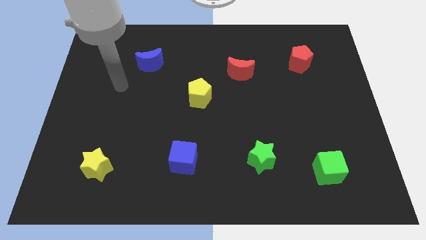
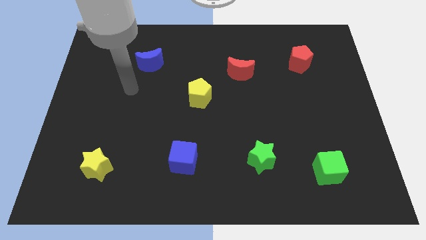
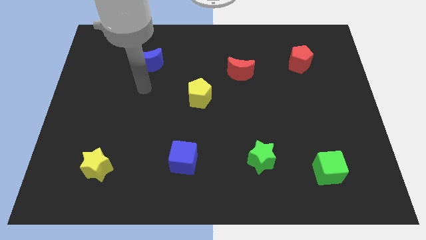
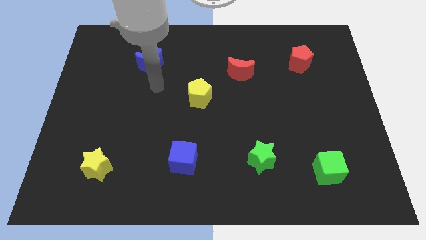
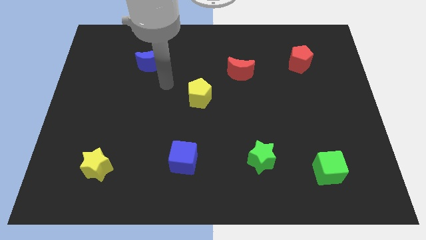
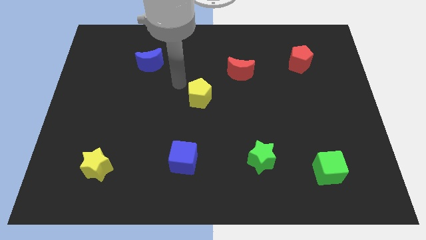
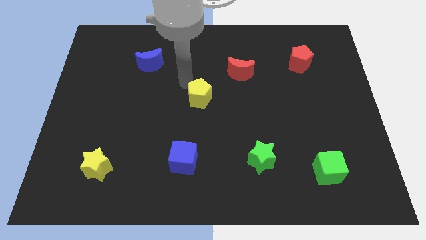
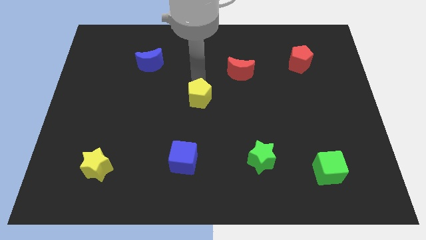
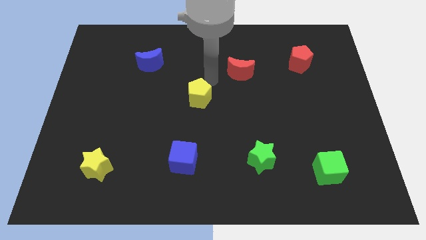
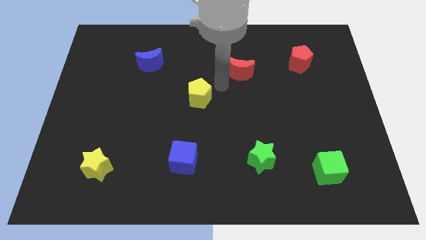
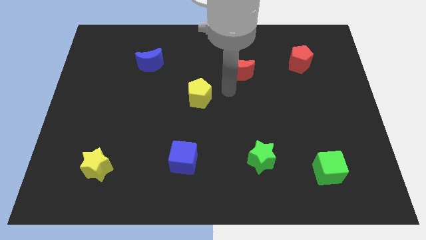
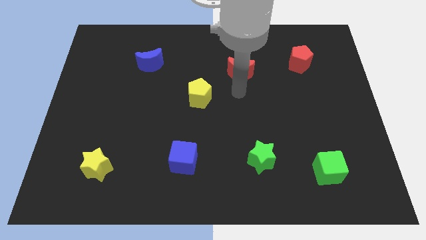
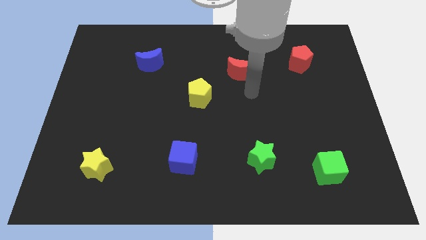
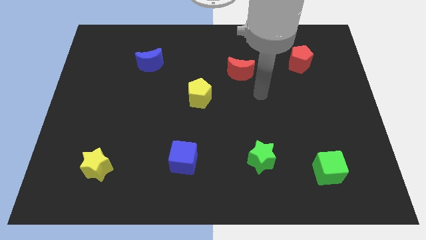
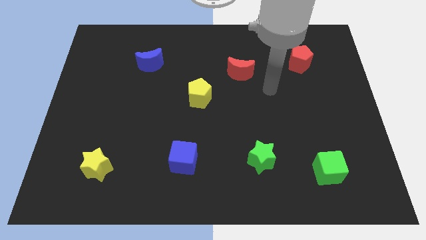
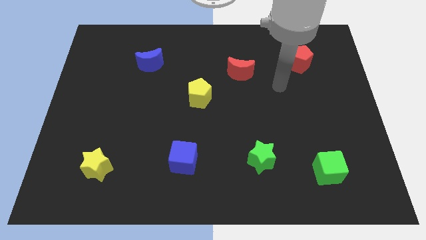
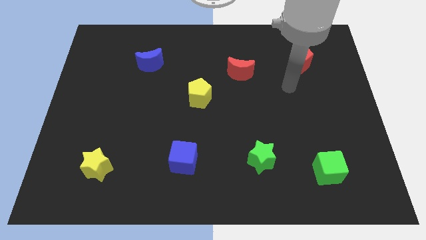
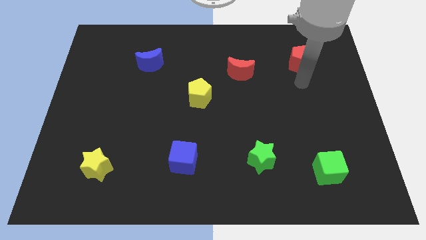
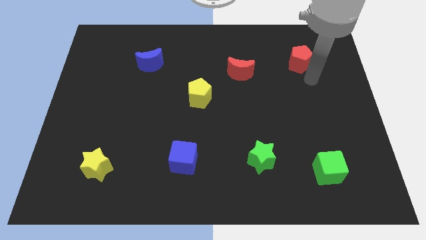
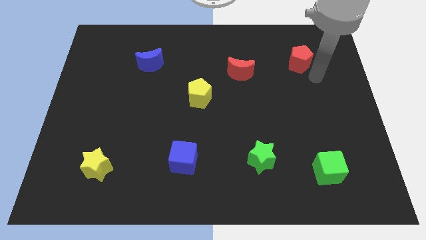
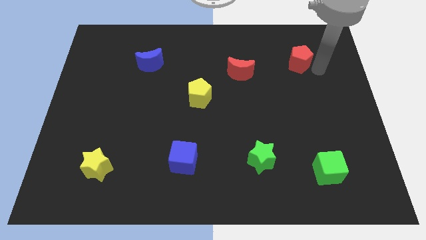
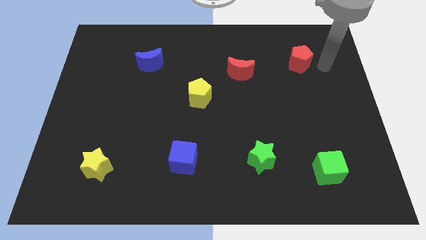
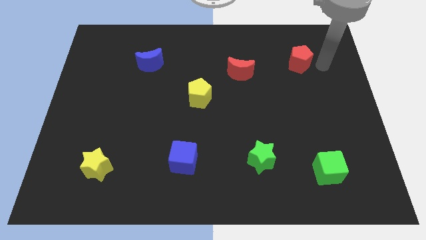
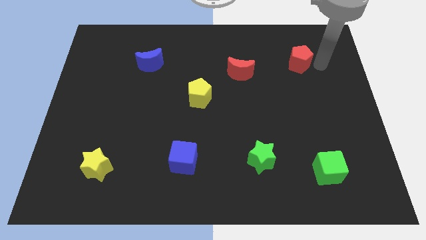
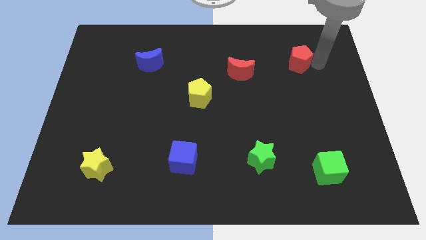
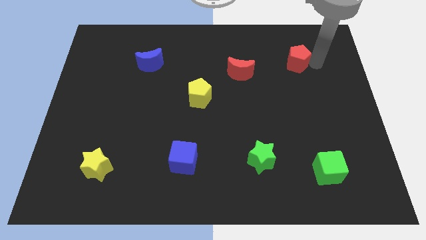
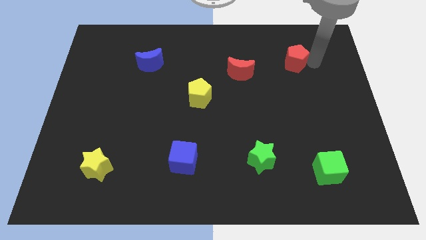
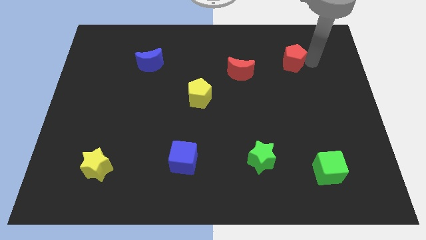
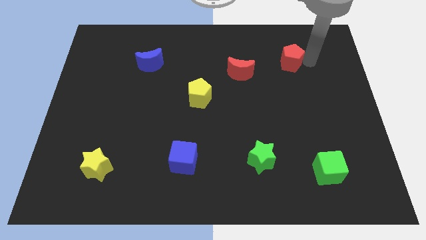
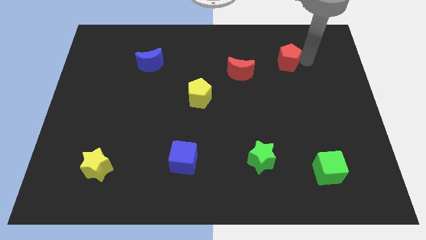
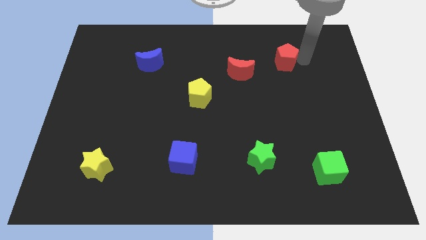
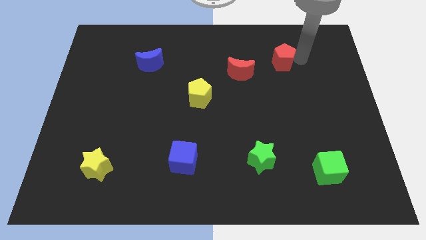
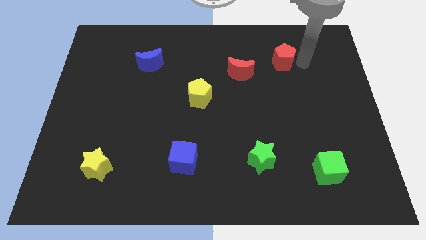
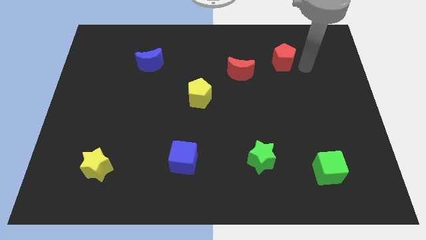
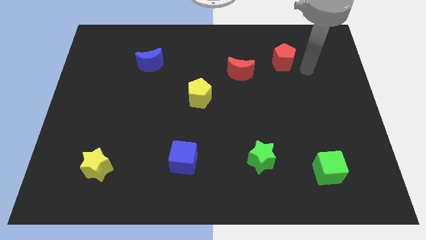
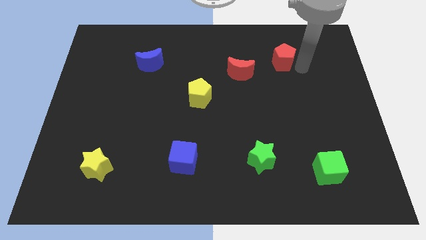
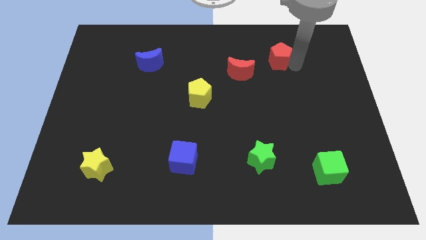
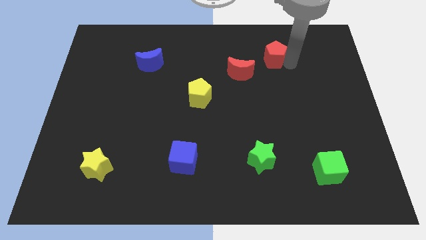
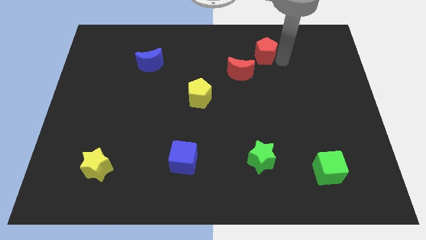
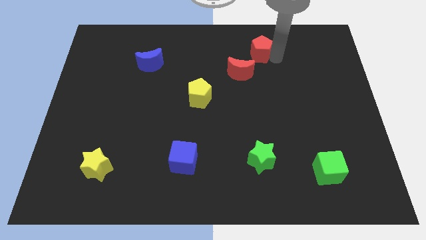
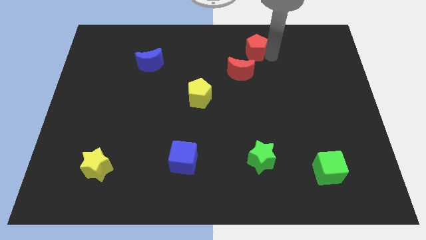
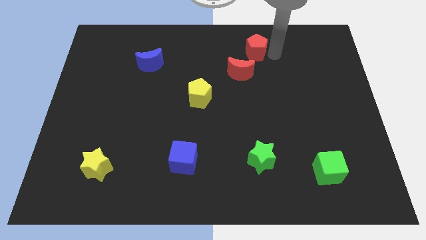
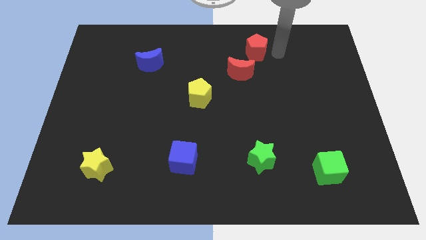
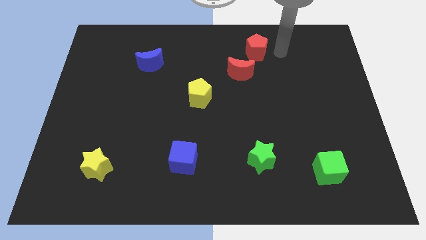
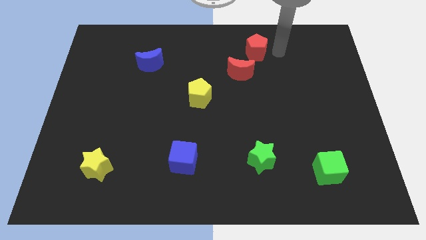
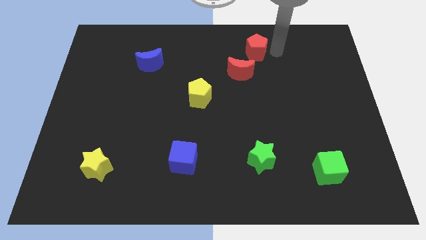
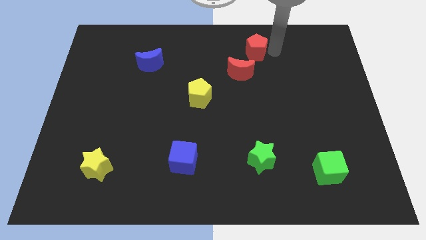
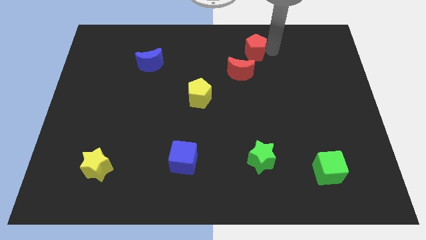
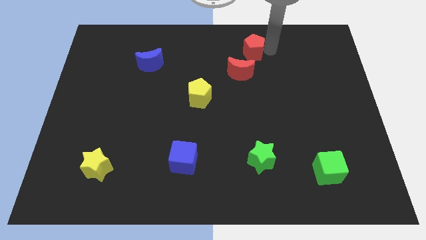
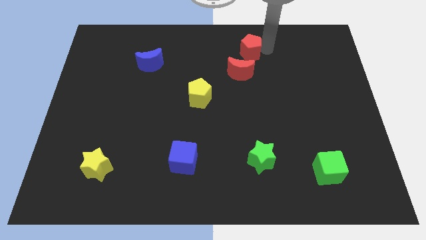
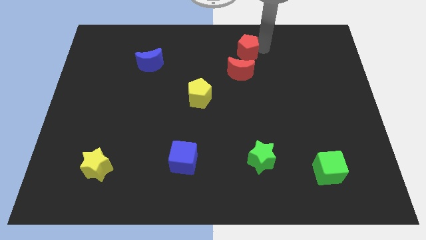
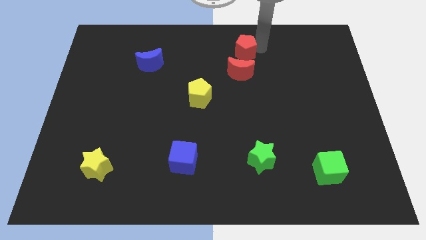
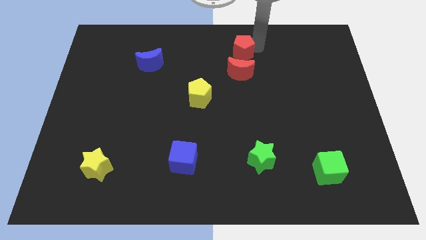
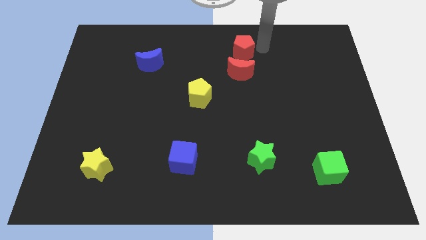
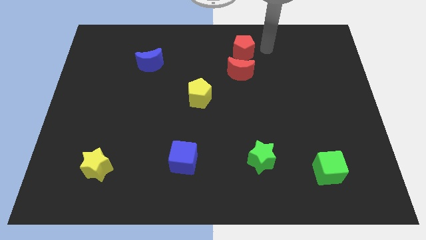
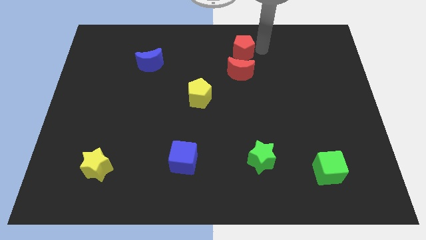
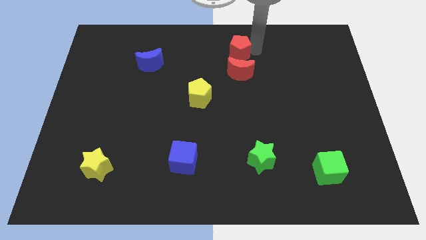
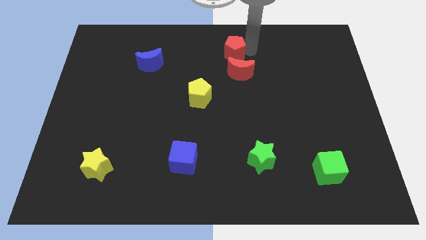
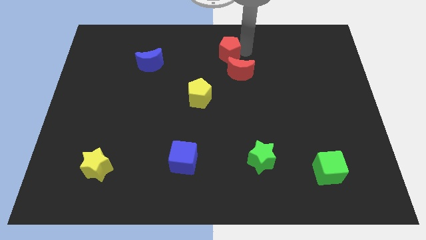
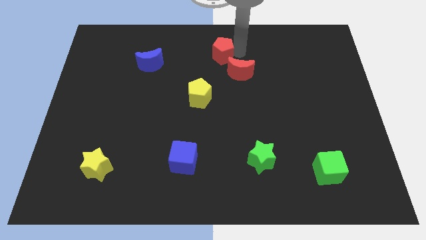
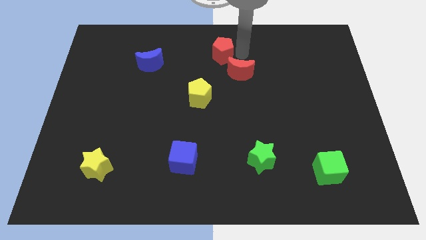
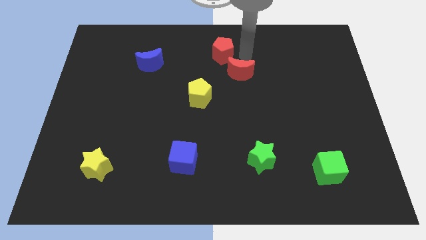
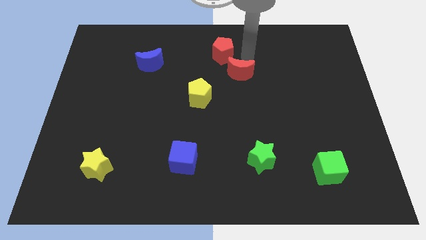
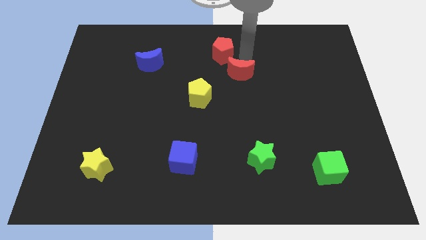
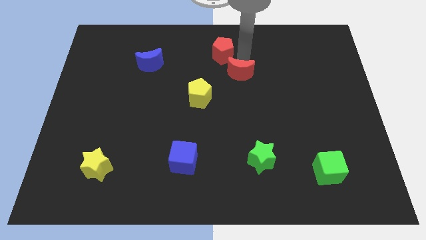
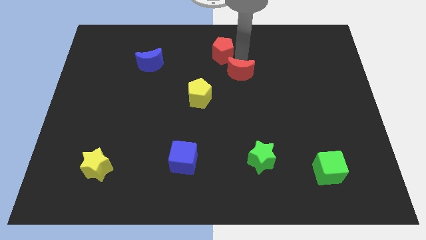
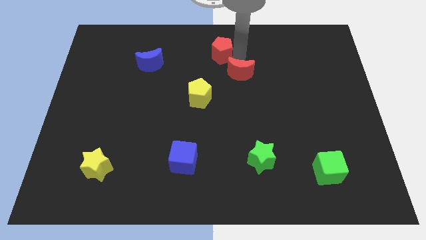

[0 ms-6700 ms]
slide the red pentagon to the left

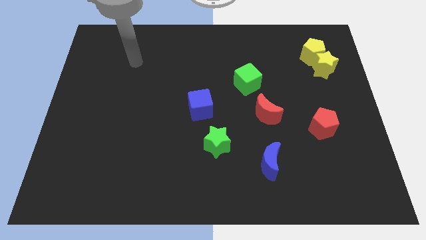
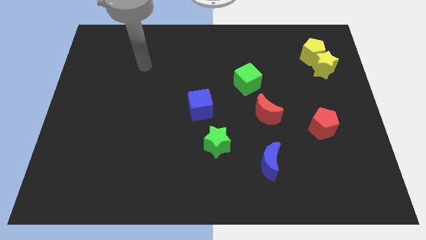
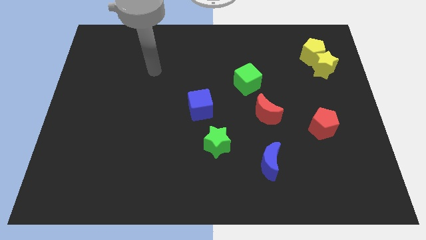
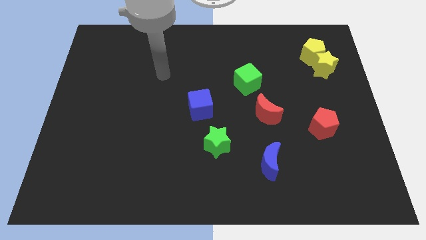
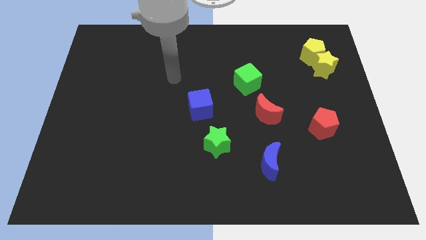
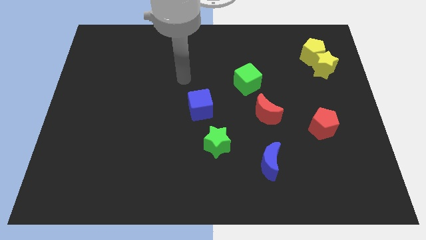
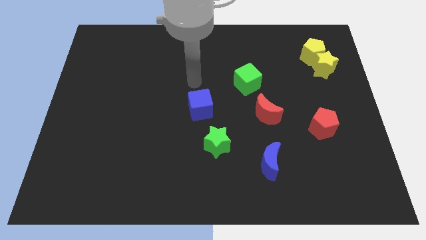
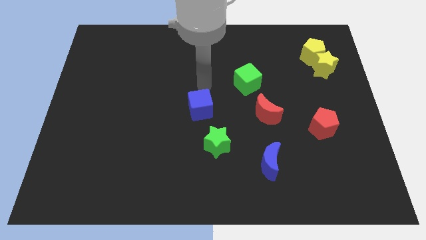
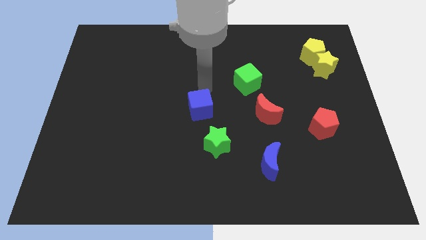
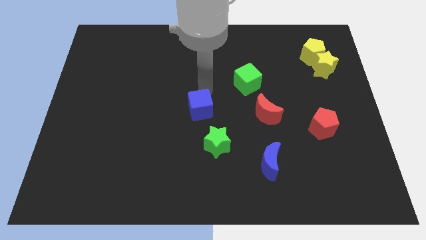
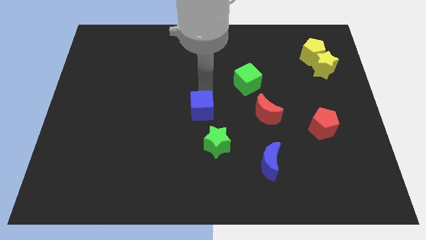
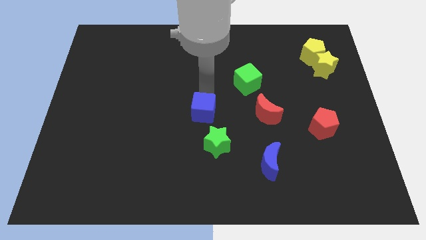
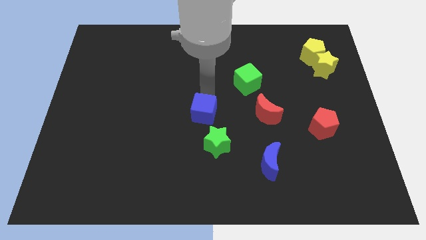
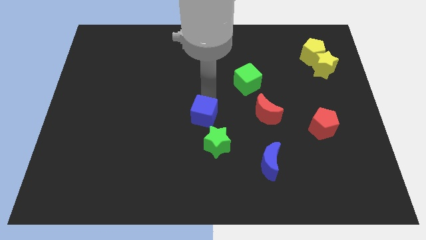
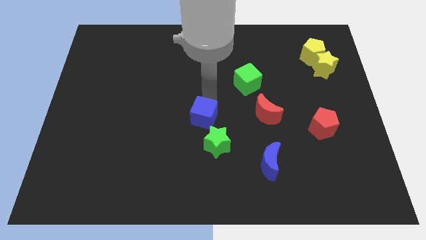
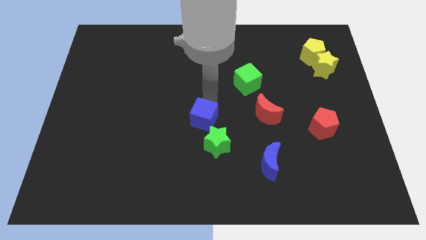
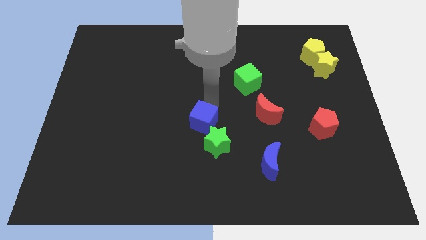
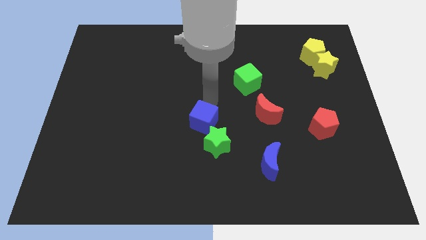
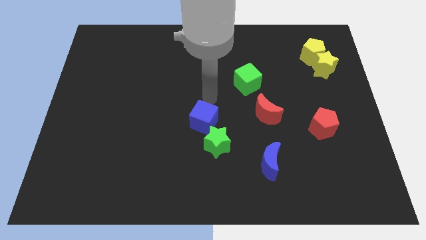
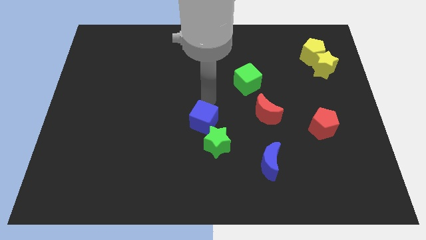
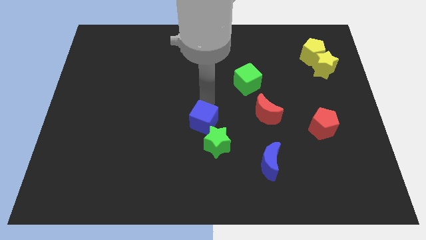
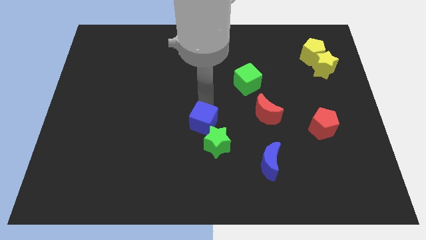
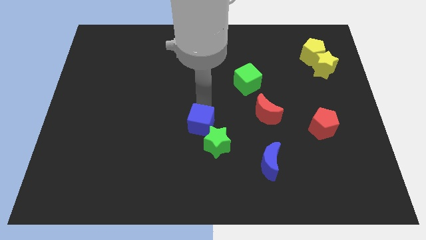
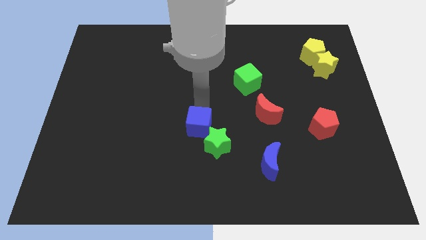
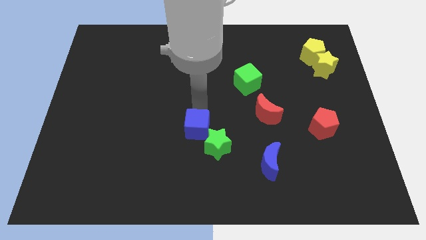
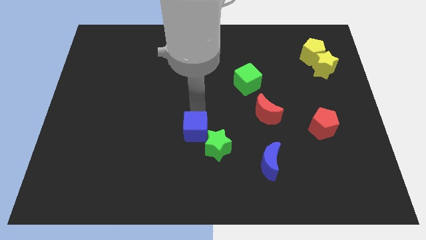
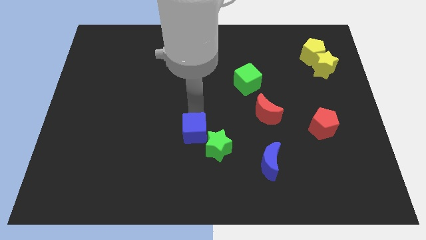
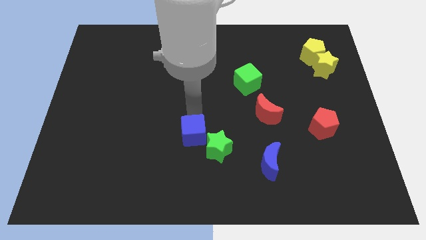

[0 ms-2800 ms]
push the blue cube a bit downwards
